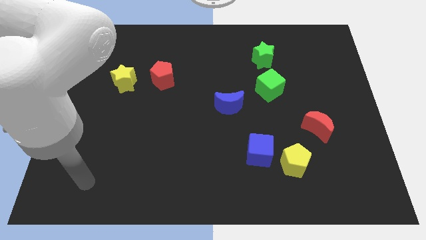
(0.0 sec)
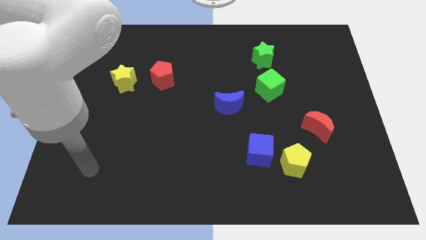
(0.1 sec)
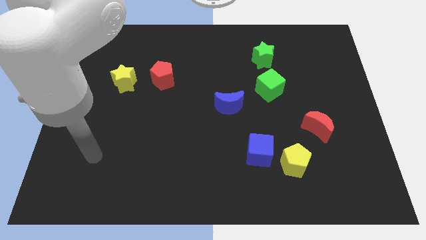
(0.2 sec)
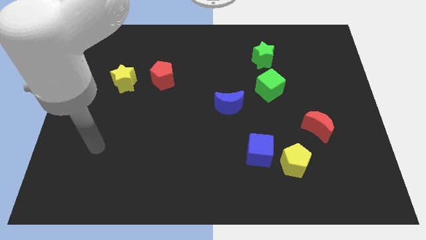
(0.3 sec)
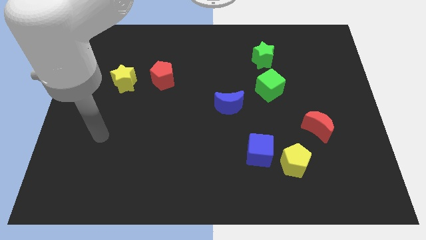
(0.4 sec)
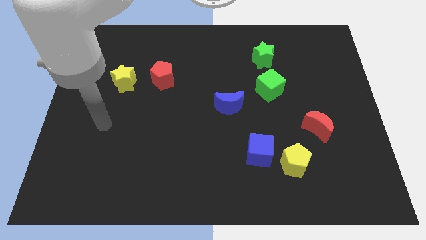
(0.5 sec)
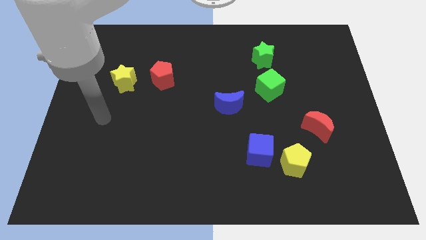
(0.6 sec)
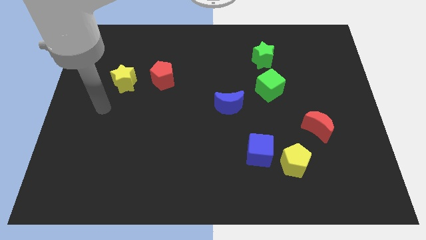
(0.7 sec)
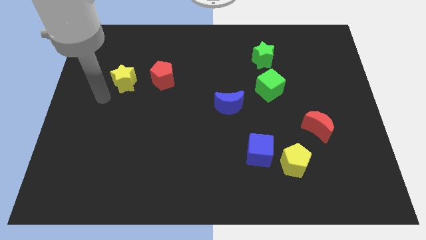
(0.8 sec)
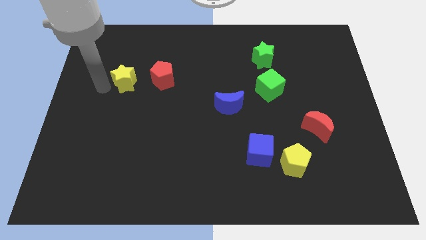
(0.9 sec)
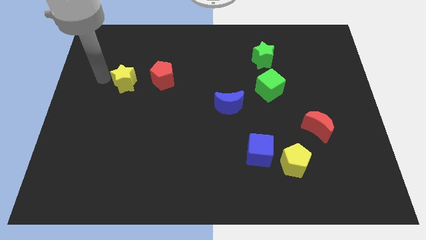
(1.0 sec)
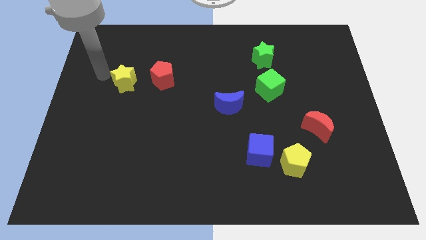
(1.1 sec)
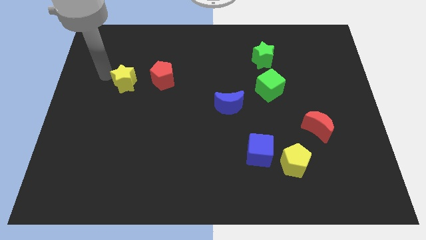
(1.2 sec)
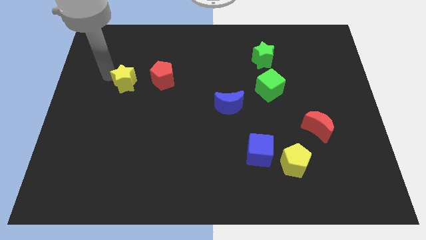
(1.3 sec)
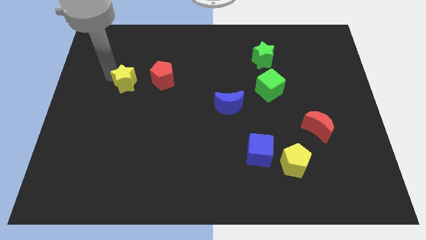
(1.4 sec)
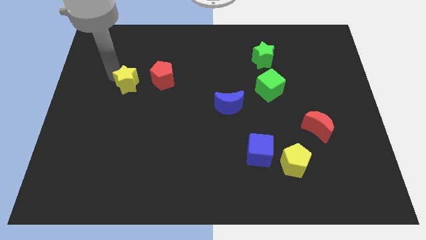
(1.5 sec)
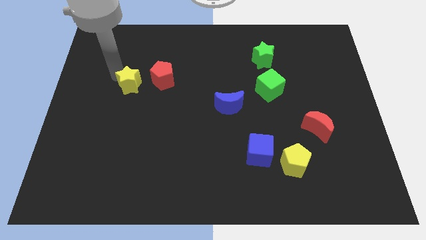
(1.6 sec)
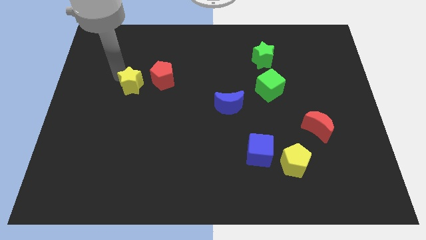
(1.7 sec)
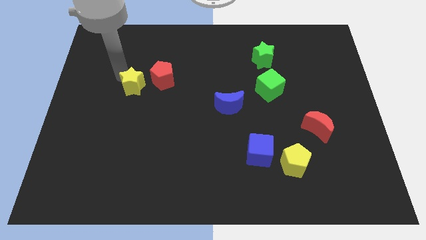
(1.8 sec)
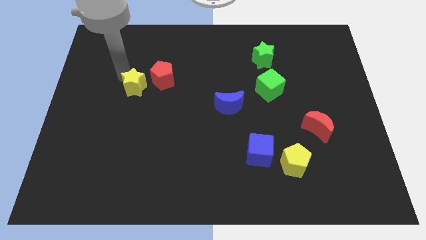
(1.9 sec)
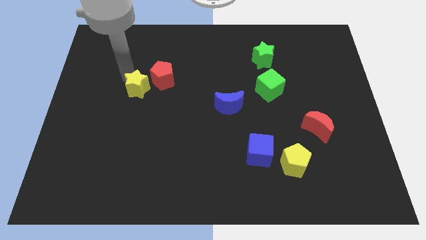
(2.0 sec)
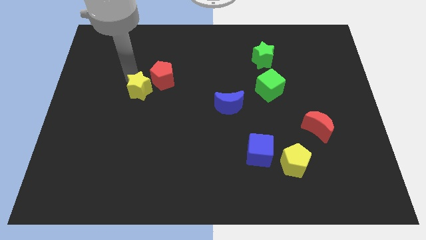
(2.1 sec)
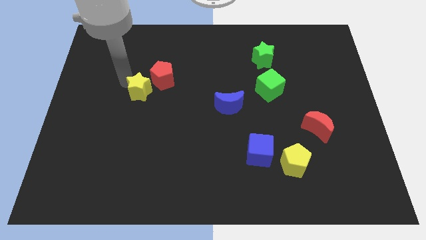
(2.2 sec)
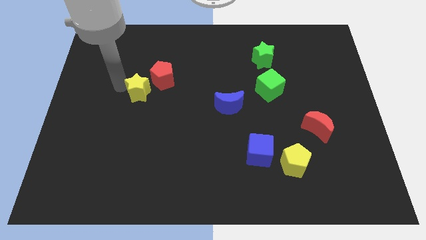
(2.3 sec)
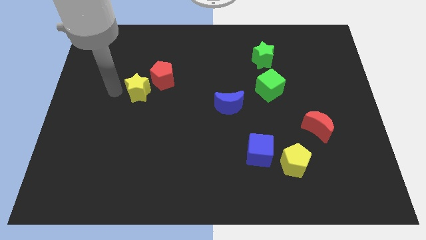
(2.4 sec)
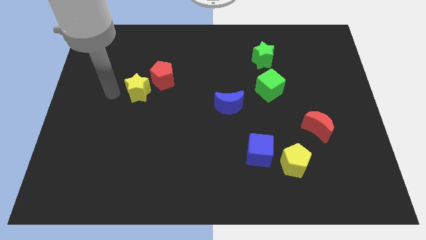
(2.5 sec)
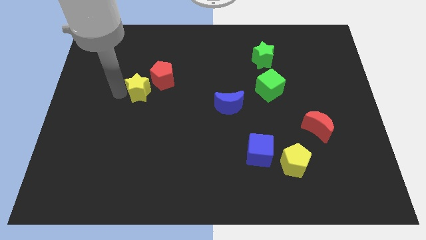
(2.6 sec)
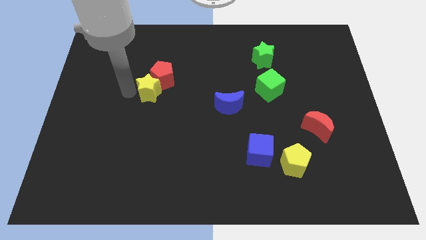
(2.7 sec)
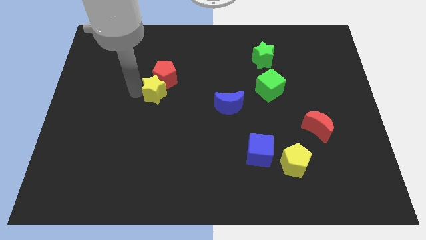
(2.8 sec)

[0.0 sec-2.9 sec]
slightly slide the yellow star right

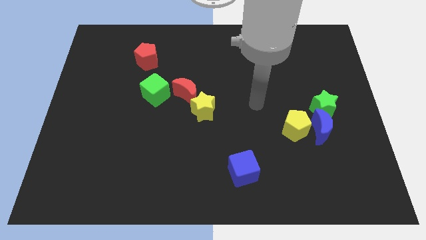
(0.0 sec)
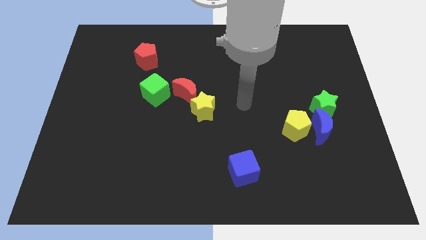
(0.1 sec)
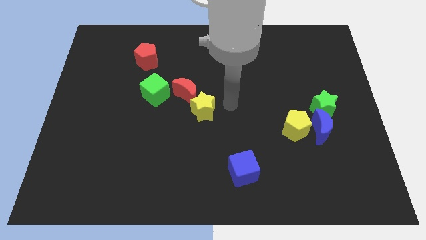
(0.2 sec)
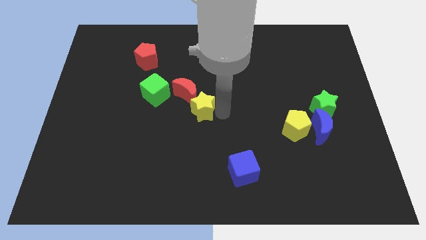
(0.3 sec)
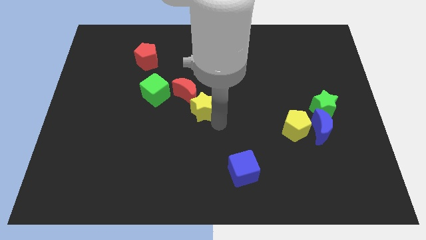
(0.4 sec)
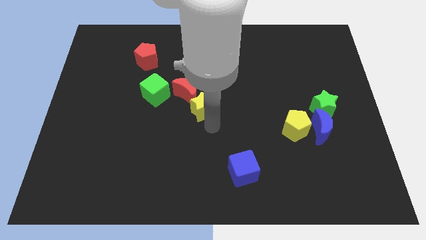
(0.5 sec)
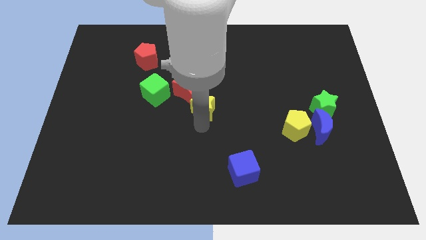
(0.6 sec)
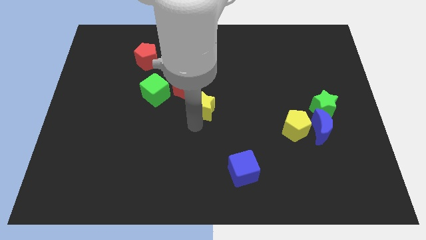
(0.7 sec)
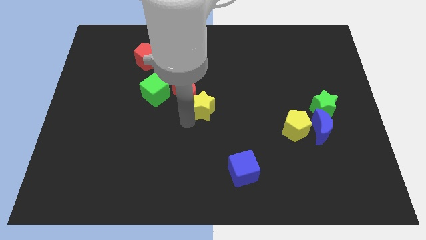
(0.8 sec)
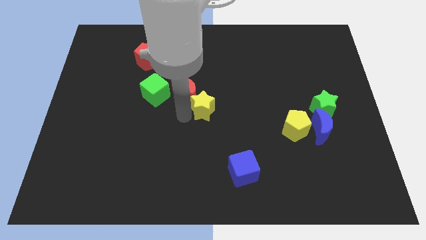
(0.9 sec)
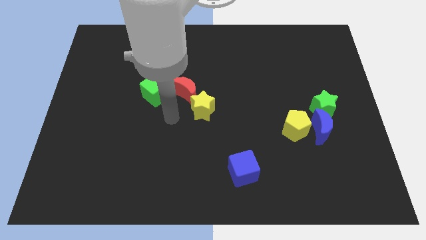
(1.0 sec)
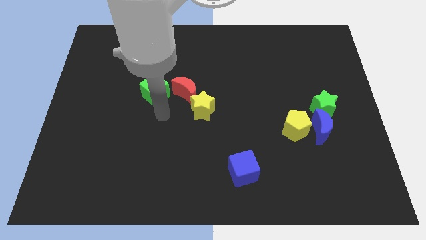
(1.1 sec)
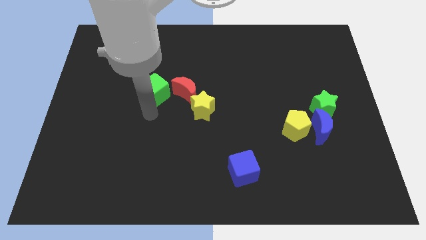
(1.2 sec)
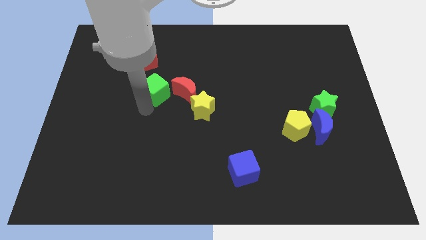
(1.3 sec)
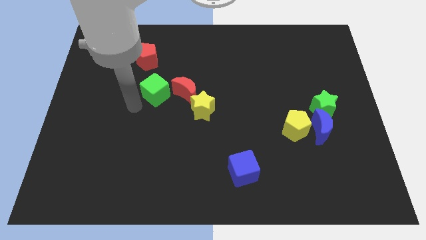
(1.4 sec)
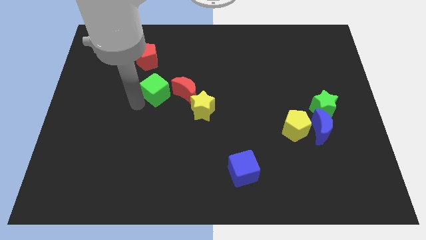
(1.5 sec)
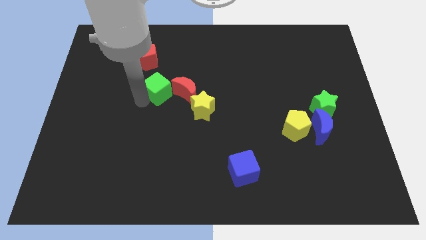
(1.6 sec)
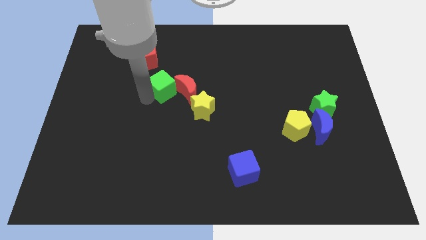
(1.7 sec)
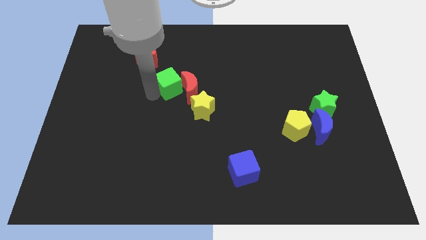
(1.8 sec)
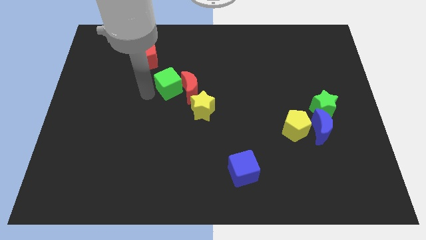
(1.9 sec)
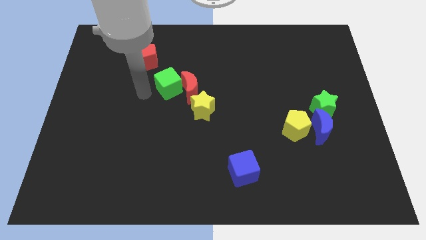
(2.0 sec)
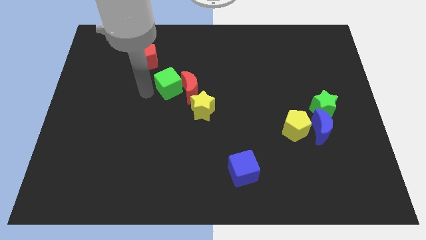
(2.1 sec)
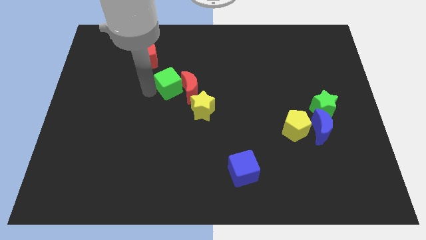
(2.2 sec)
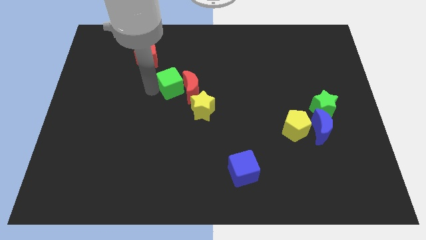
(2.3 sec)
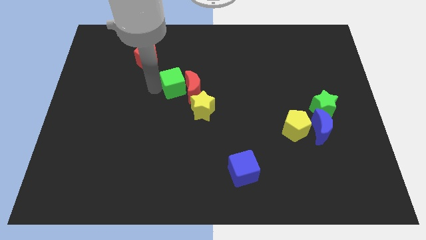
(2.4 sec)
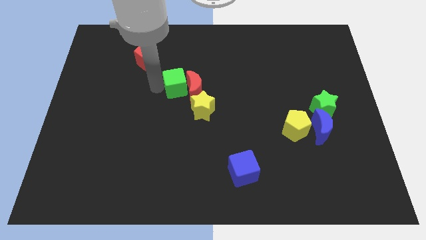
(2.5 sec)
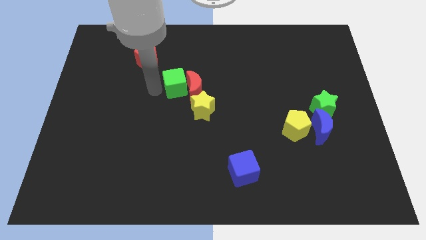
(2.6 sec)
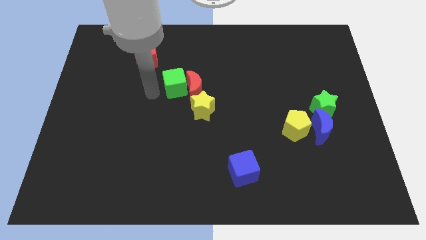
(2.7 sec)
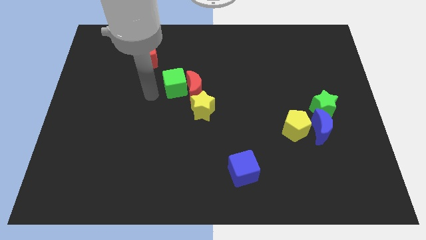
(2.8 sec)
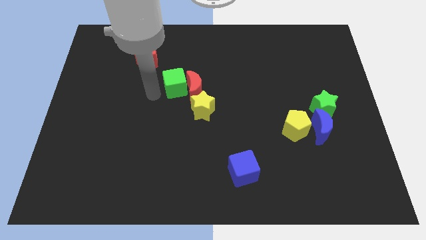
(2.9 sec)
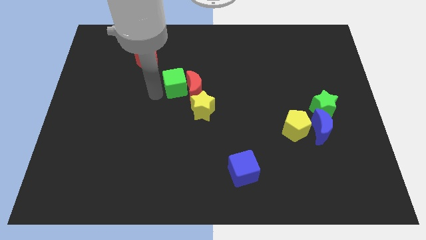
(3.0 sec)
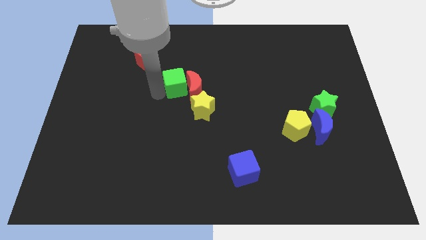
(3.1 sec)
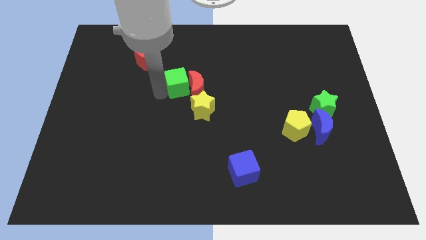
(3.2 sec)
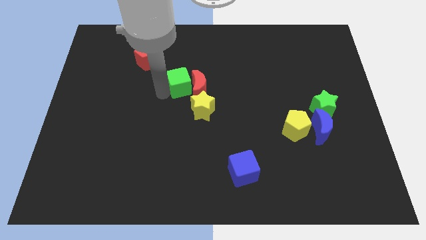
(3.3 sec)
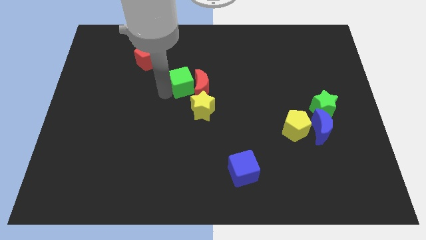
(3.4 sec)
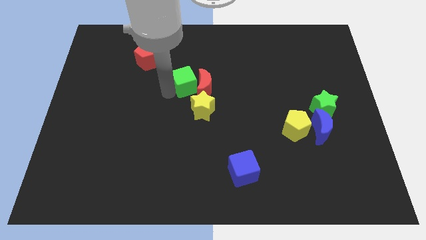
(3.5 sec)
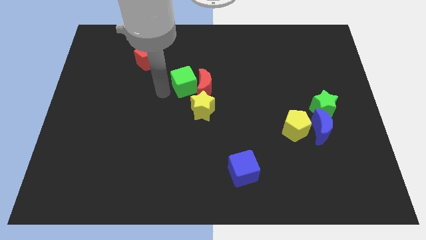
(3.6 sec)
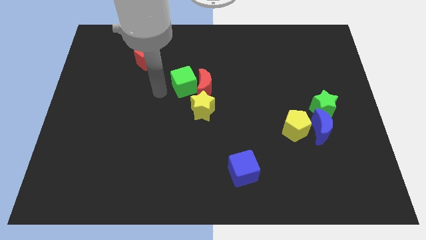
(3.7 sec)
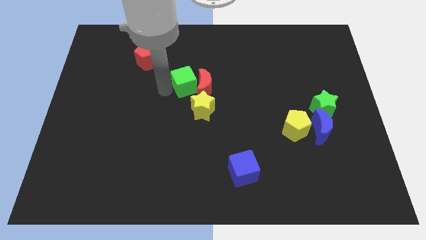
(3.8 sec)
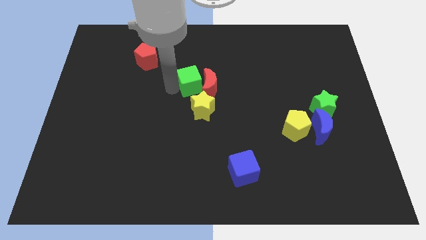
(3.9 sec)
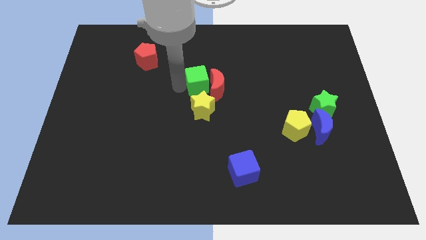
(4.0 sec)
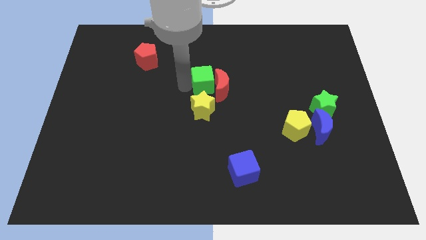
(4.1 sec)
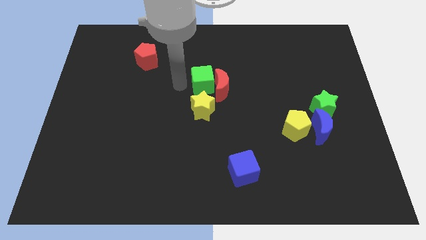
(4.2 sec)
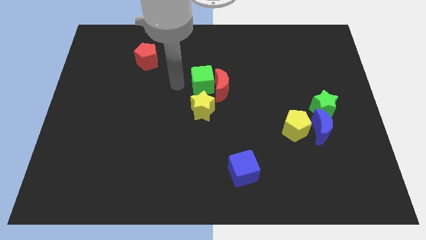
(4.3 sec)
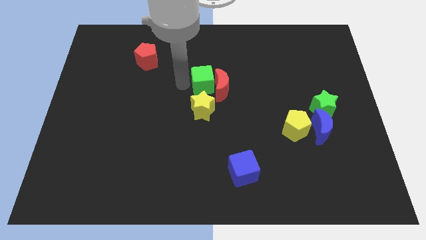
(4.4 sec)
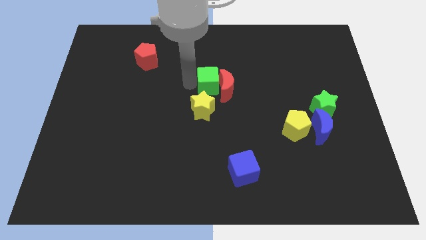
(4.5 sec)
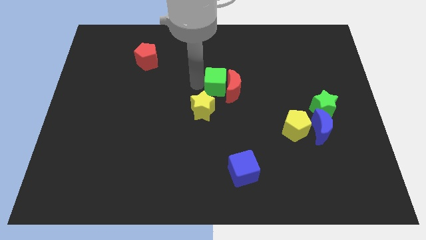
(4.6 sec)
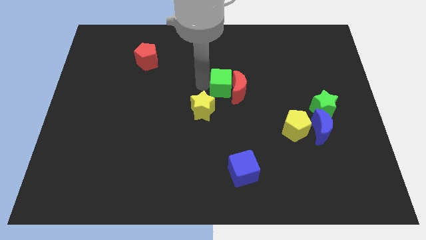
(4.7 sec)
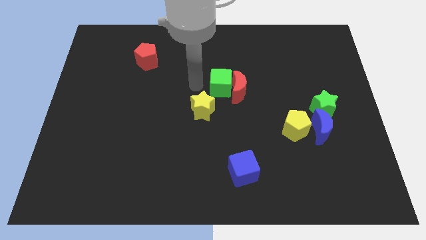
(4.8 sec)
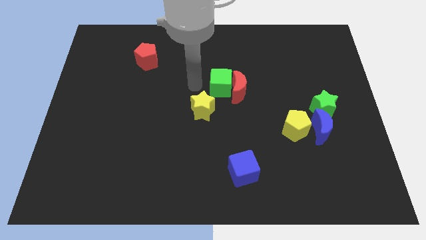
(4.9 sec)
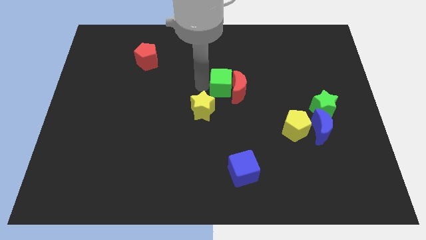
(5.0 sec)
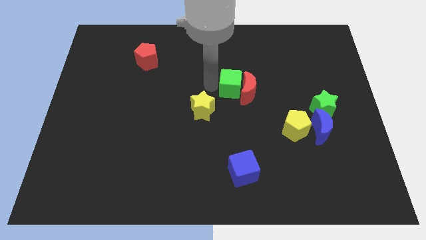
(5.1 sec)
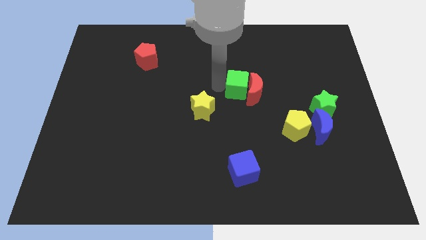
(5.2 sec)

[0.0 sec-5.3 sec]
push the green cube to the right
